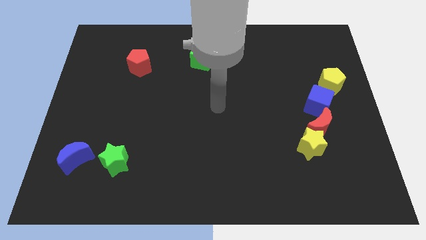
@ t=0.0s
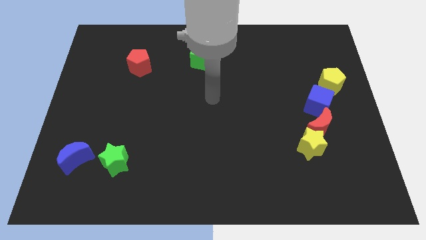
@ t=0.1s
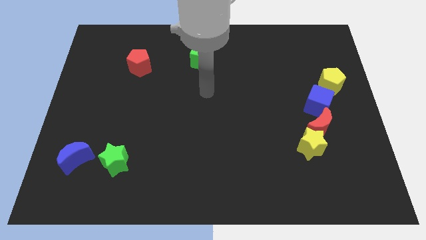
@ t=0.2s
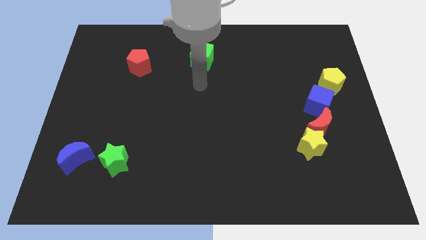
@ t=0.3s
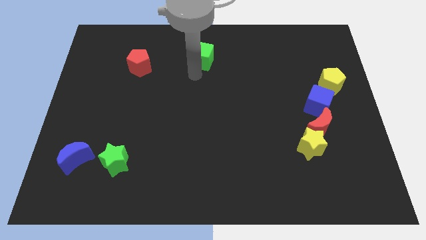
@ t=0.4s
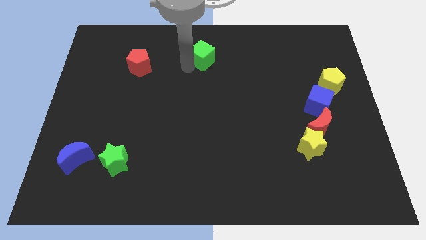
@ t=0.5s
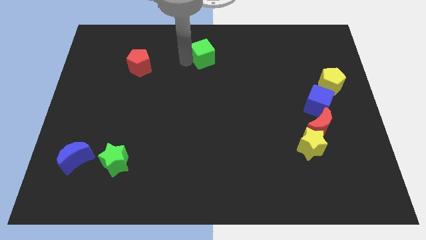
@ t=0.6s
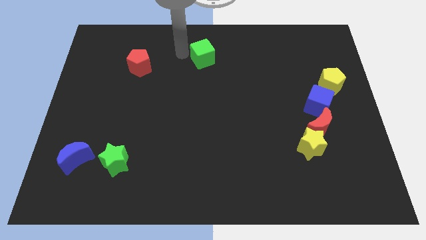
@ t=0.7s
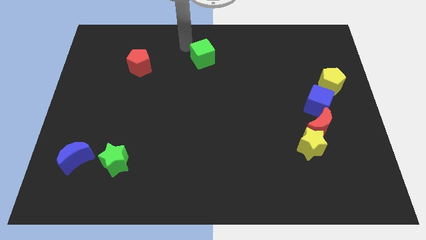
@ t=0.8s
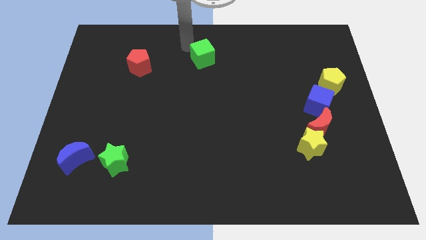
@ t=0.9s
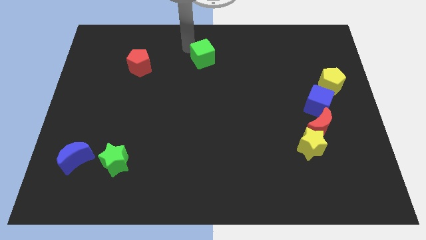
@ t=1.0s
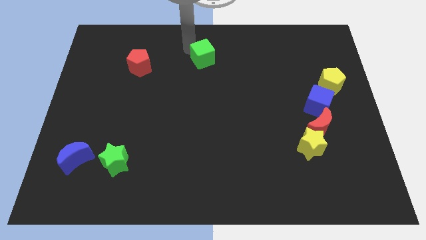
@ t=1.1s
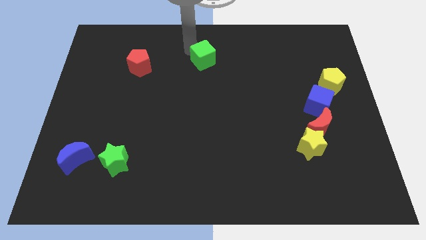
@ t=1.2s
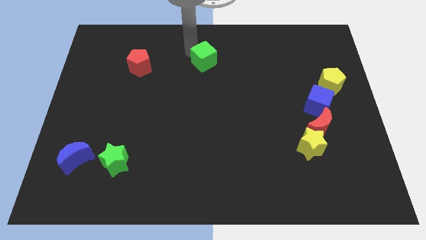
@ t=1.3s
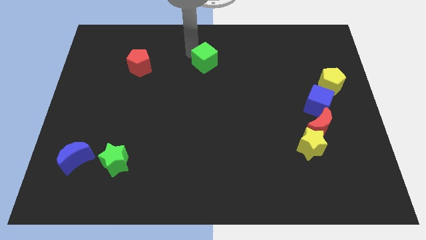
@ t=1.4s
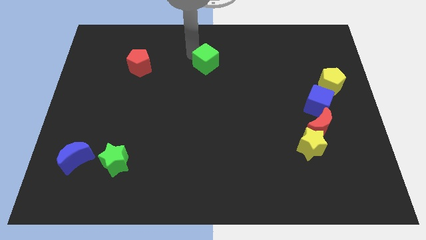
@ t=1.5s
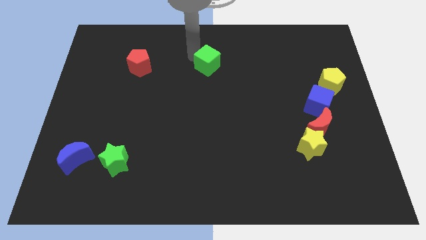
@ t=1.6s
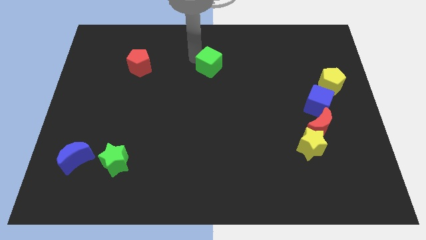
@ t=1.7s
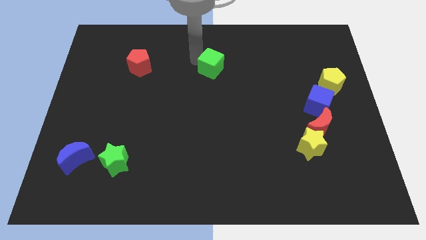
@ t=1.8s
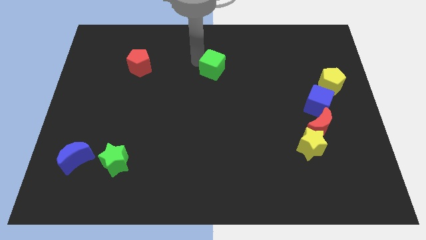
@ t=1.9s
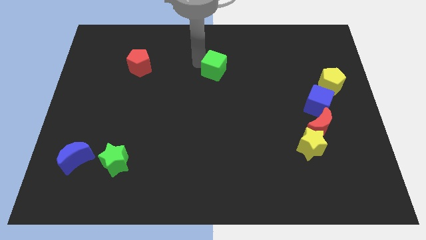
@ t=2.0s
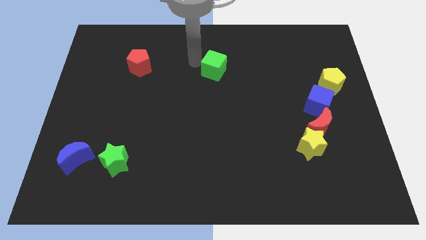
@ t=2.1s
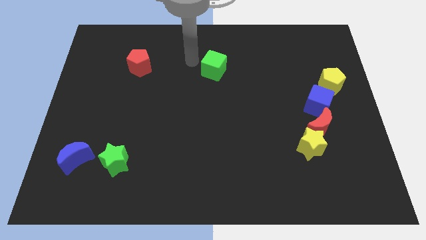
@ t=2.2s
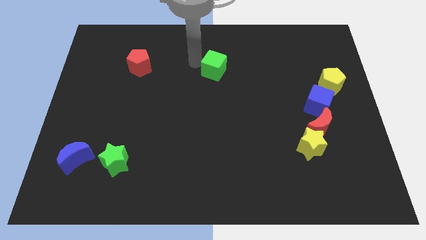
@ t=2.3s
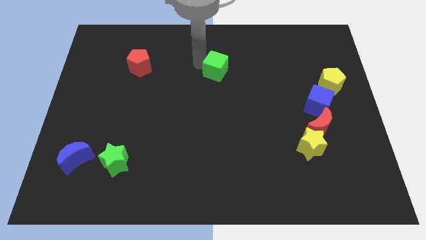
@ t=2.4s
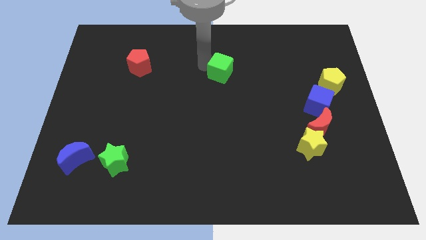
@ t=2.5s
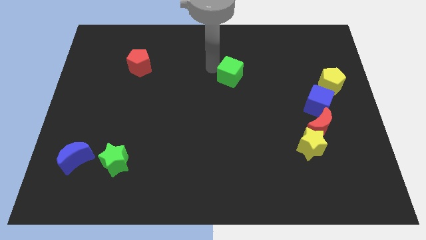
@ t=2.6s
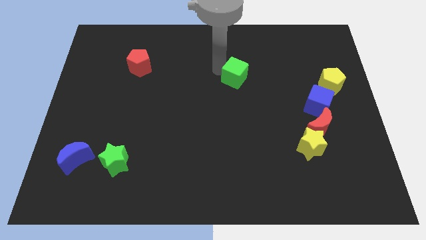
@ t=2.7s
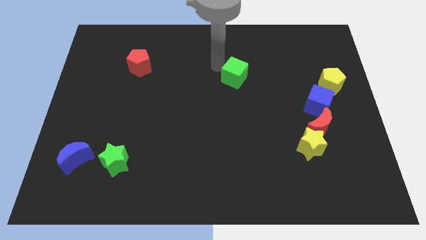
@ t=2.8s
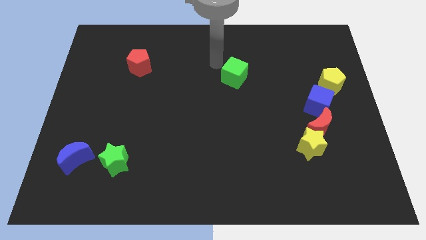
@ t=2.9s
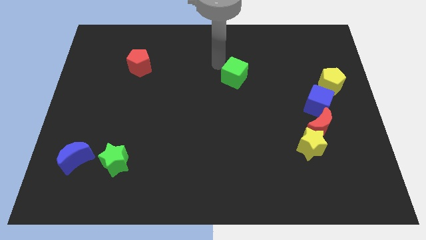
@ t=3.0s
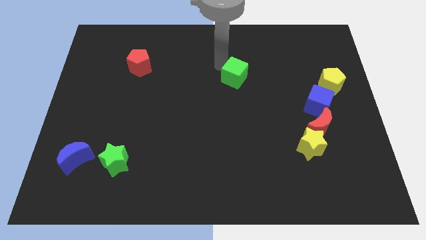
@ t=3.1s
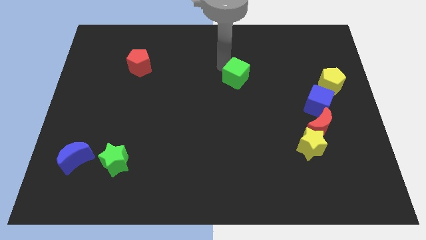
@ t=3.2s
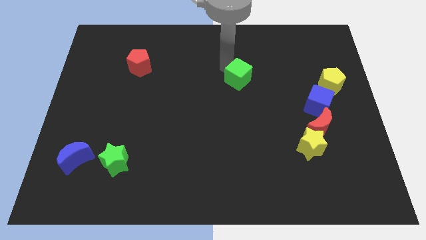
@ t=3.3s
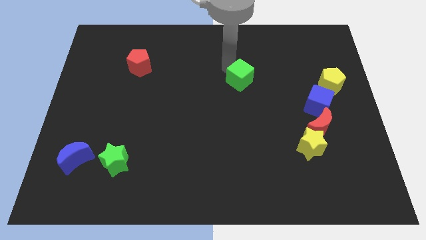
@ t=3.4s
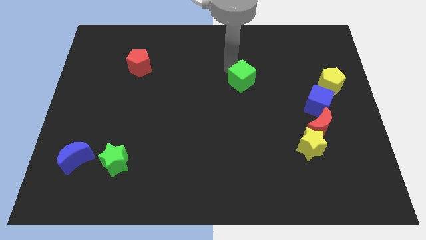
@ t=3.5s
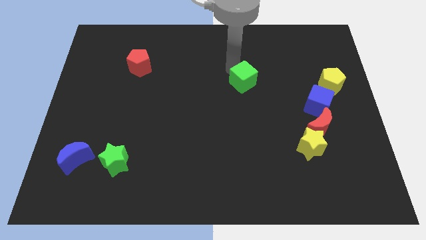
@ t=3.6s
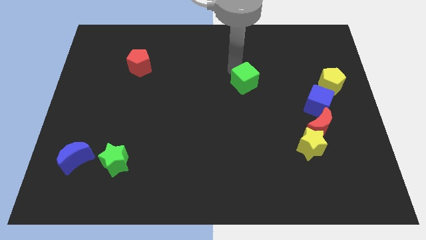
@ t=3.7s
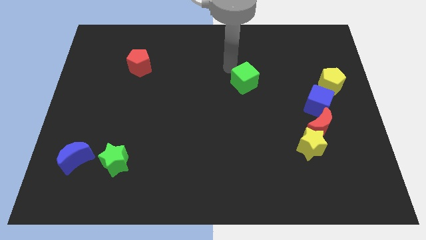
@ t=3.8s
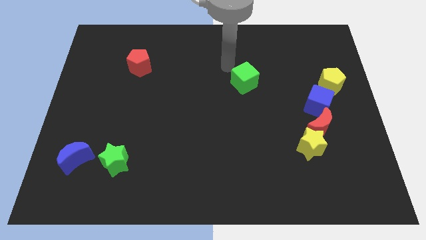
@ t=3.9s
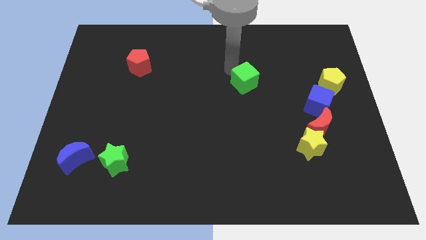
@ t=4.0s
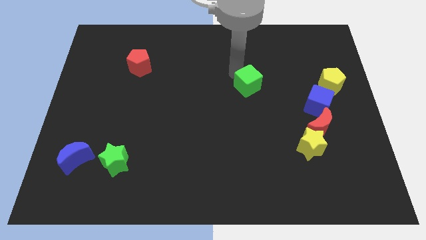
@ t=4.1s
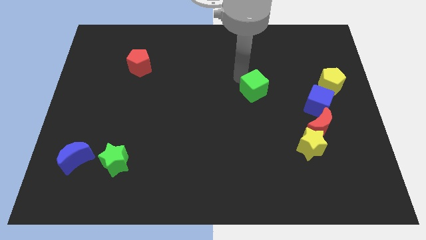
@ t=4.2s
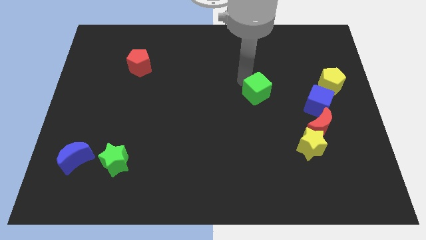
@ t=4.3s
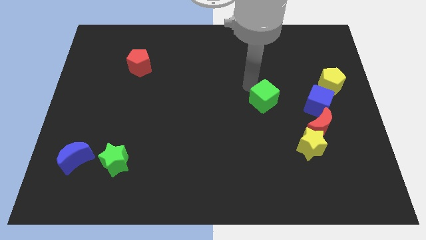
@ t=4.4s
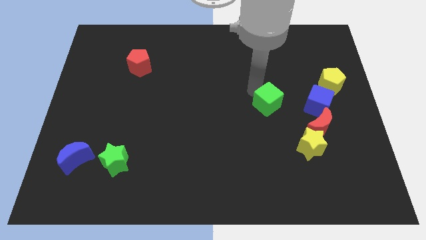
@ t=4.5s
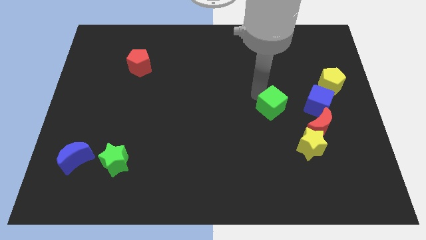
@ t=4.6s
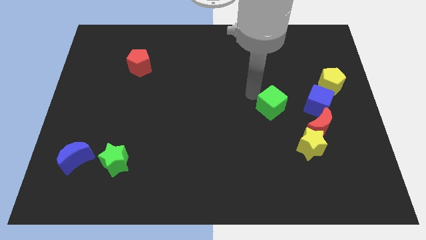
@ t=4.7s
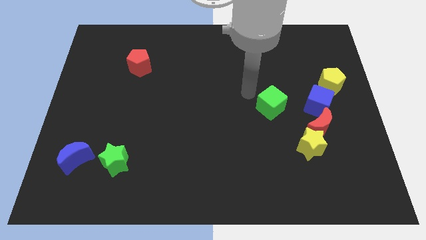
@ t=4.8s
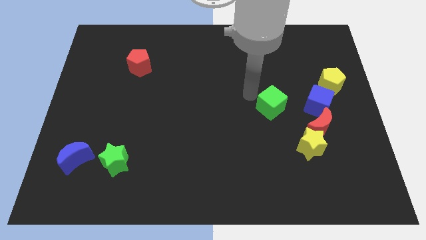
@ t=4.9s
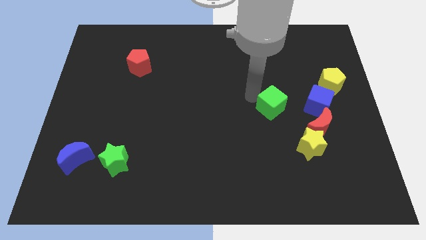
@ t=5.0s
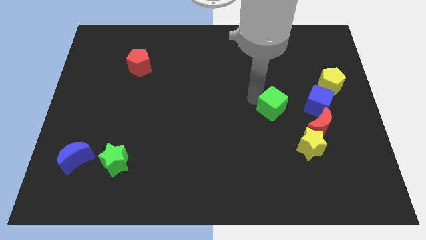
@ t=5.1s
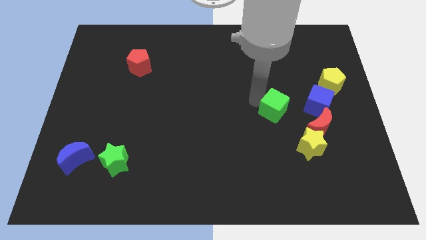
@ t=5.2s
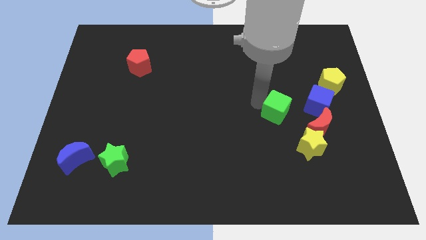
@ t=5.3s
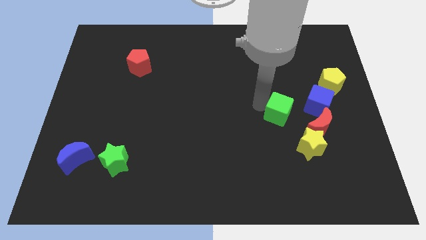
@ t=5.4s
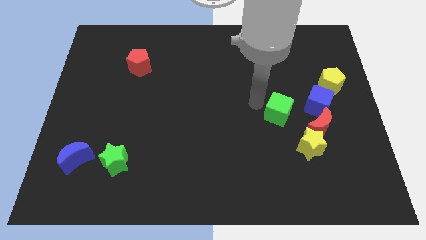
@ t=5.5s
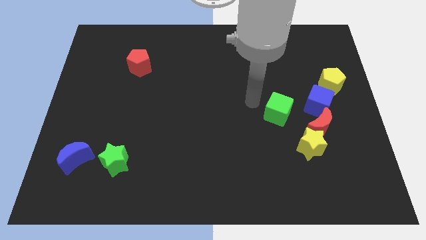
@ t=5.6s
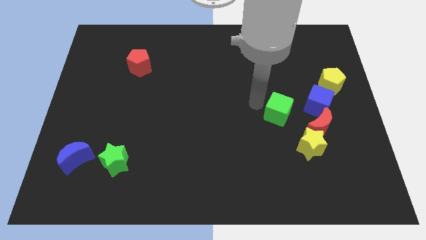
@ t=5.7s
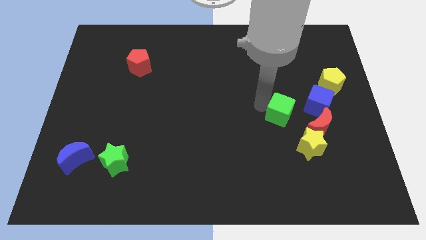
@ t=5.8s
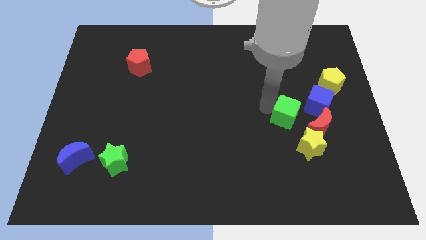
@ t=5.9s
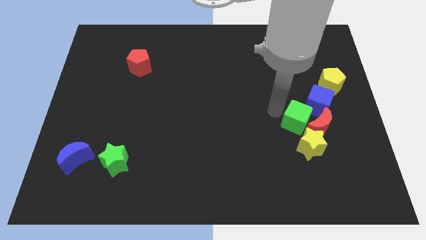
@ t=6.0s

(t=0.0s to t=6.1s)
slide the green cube to the red moon
